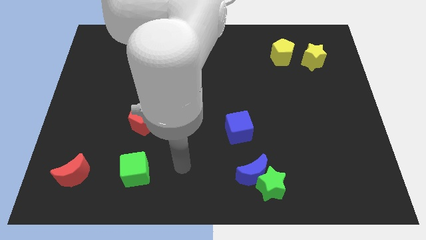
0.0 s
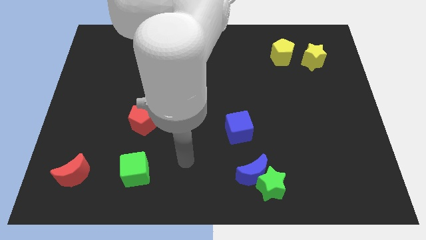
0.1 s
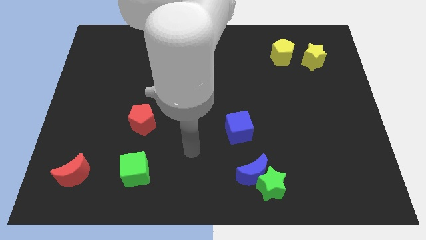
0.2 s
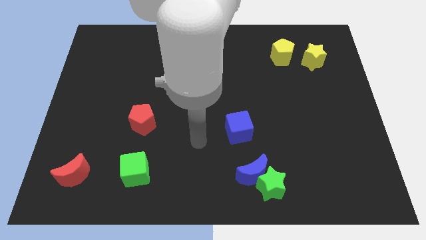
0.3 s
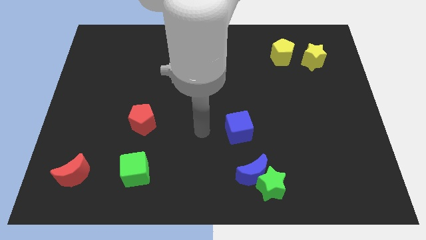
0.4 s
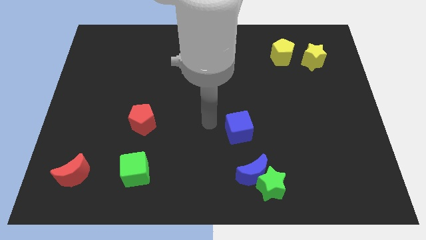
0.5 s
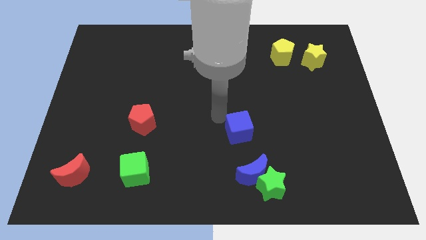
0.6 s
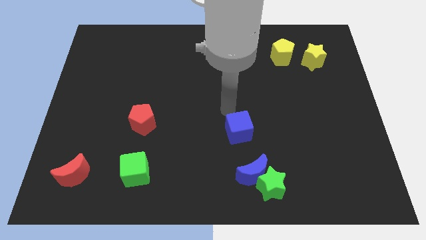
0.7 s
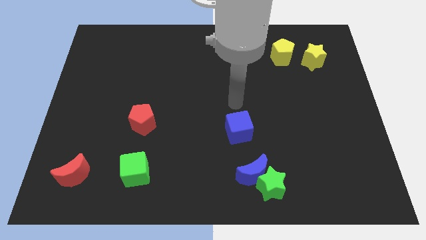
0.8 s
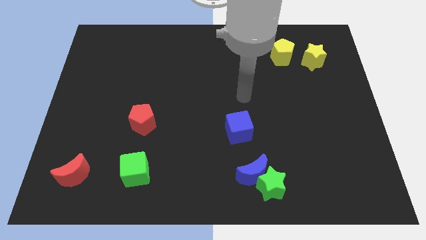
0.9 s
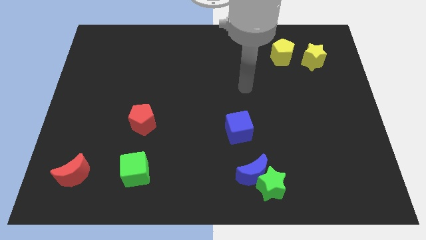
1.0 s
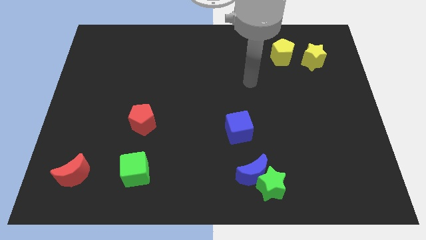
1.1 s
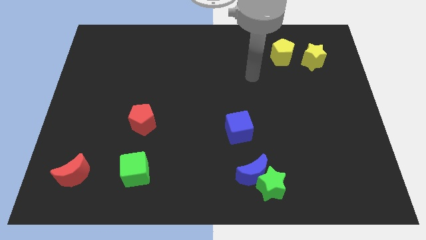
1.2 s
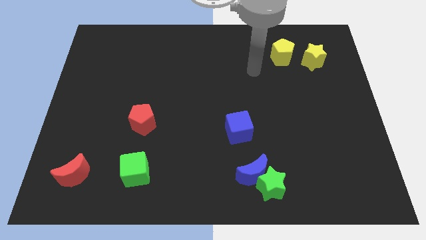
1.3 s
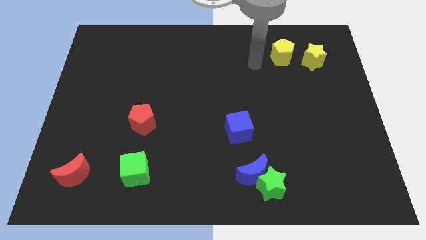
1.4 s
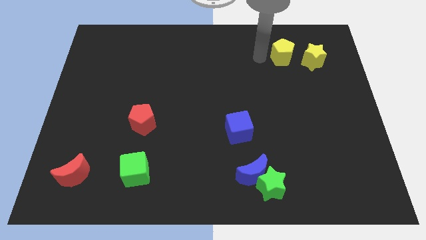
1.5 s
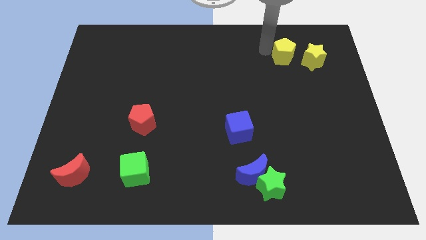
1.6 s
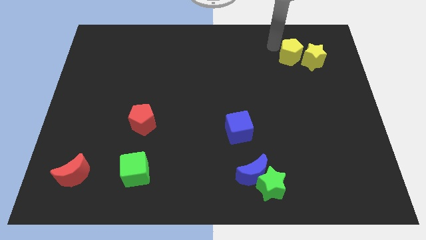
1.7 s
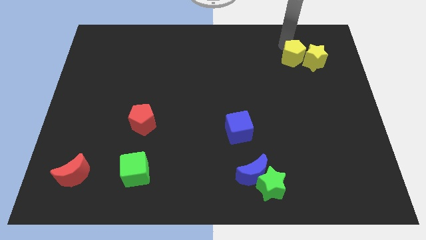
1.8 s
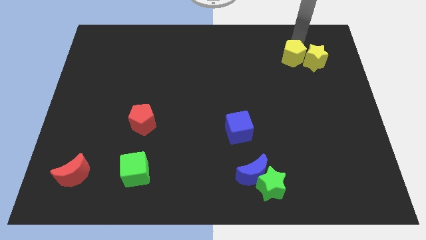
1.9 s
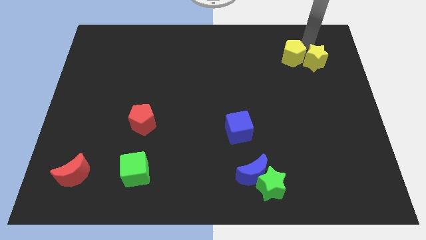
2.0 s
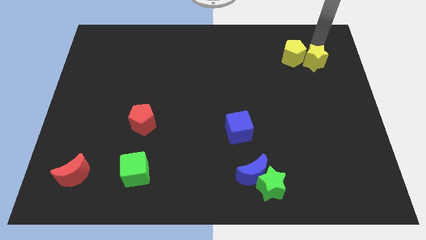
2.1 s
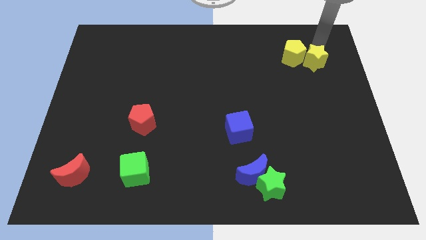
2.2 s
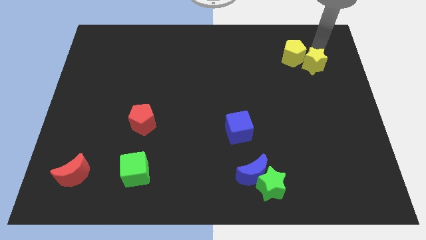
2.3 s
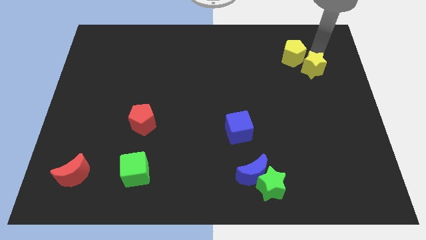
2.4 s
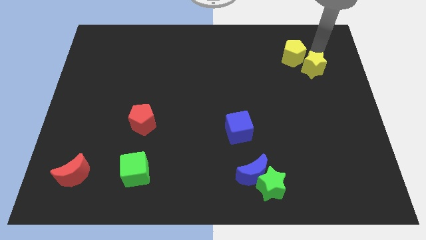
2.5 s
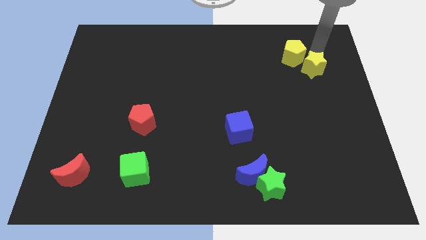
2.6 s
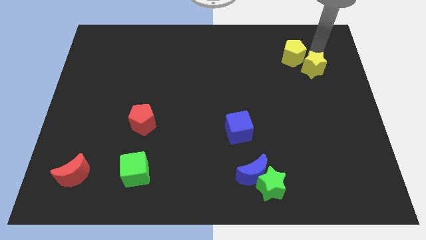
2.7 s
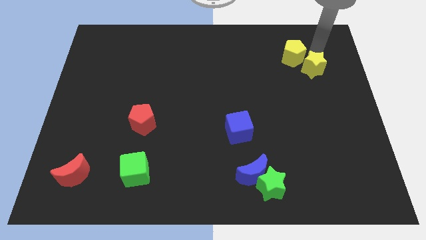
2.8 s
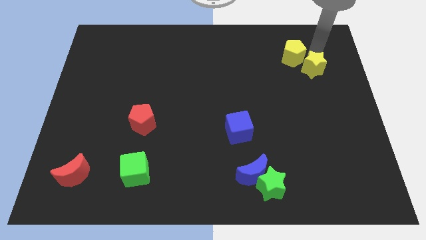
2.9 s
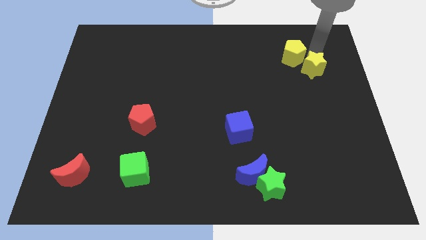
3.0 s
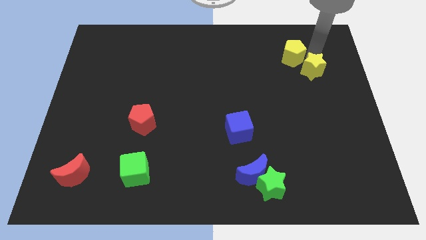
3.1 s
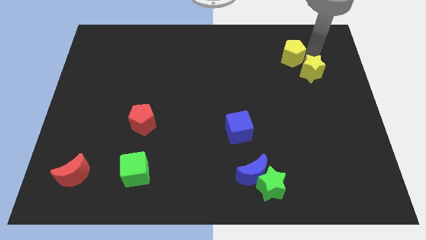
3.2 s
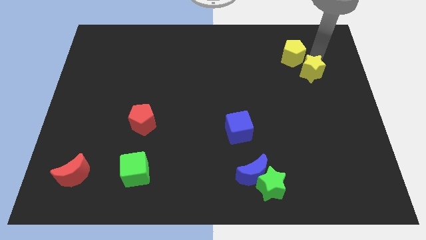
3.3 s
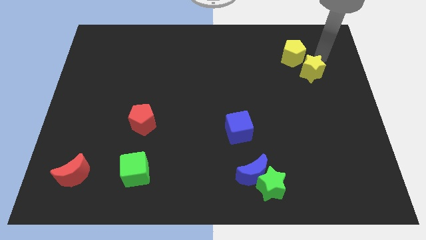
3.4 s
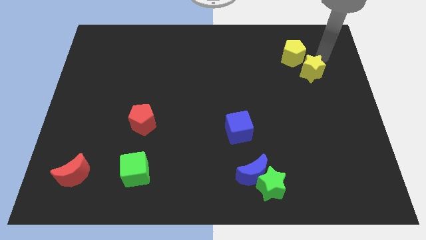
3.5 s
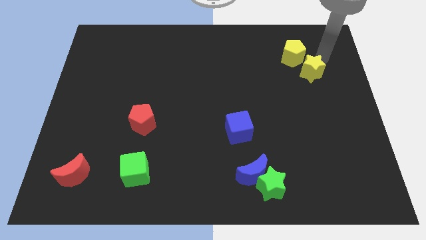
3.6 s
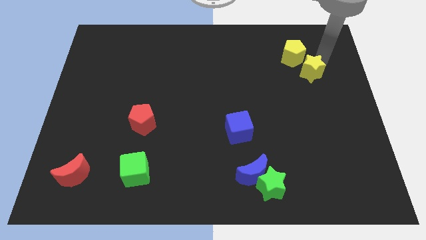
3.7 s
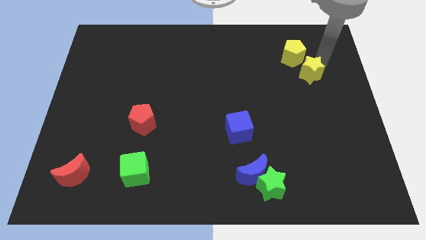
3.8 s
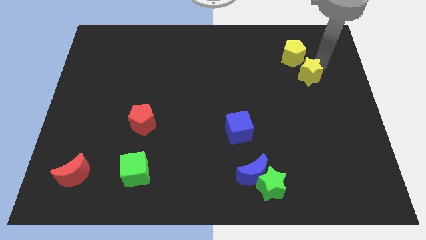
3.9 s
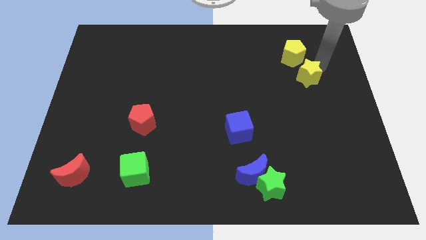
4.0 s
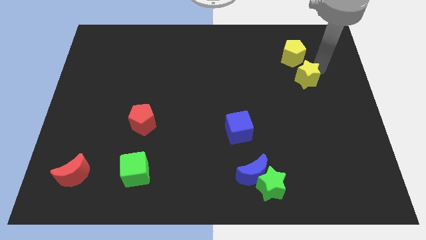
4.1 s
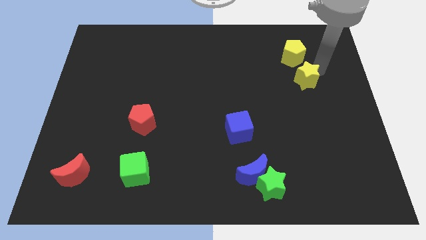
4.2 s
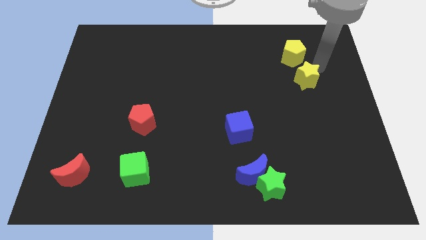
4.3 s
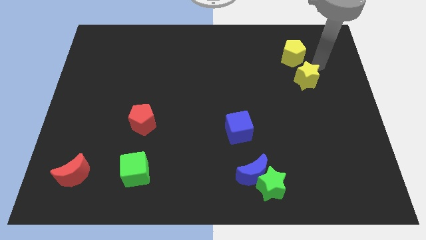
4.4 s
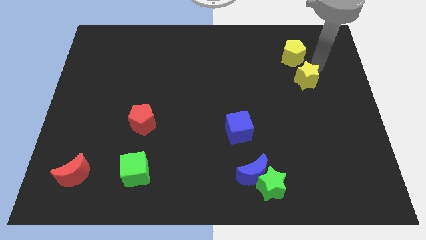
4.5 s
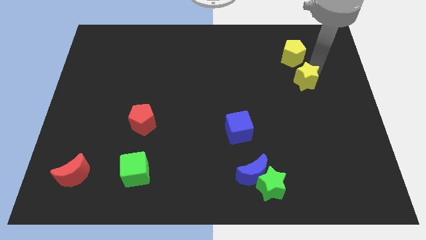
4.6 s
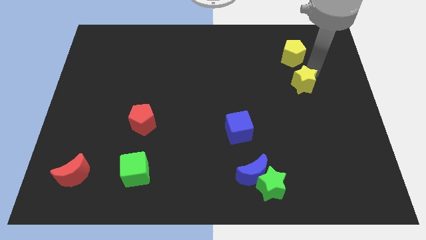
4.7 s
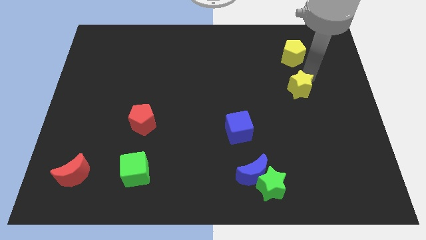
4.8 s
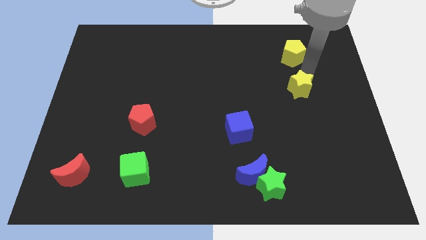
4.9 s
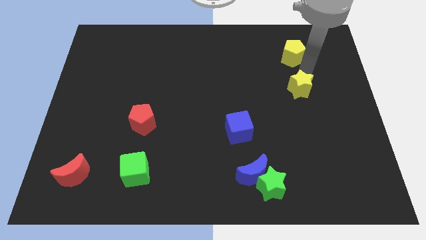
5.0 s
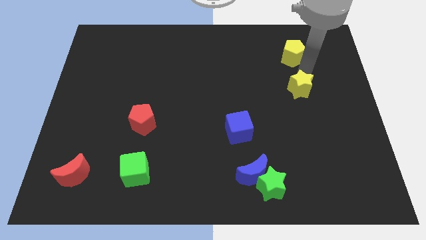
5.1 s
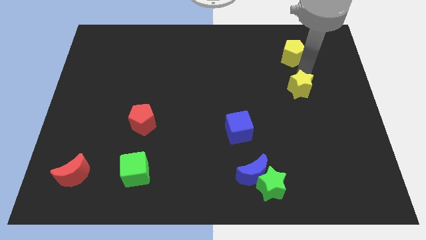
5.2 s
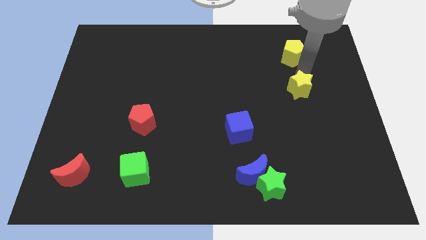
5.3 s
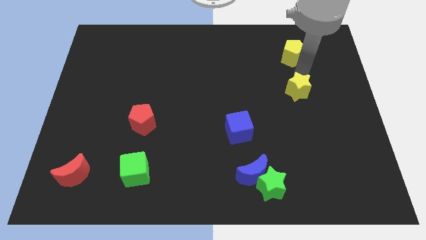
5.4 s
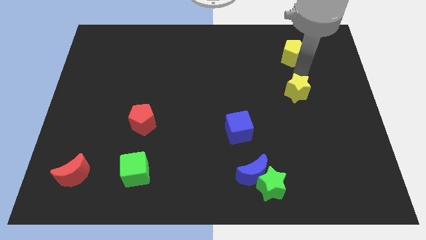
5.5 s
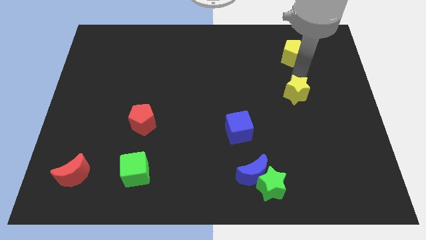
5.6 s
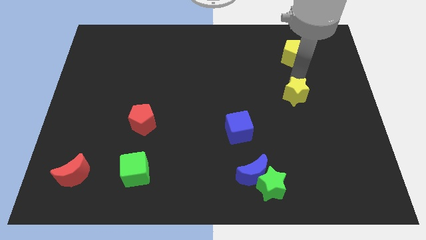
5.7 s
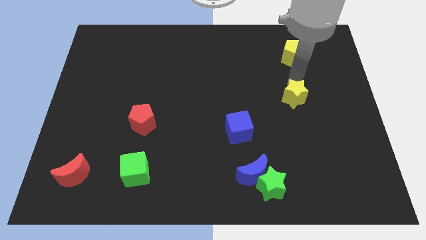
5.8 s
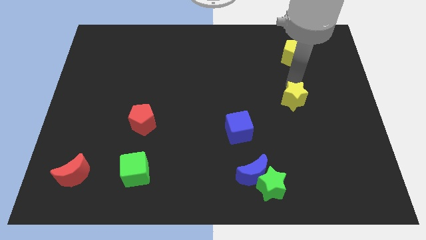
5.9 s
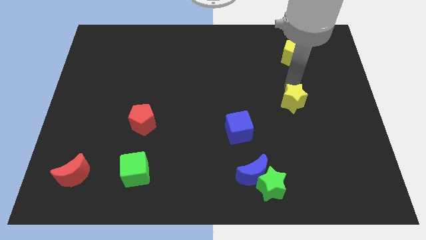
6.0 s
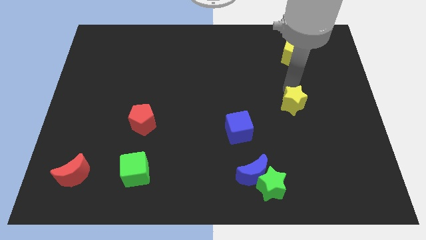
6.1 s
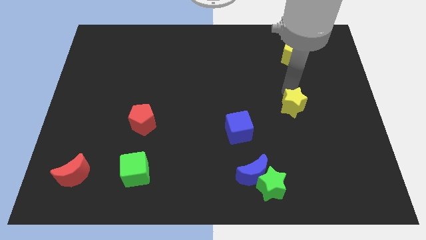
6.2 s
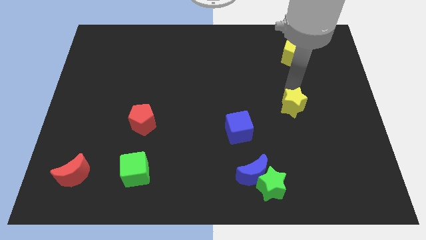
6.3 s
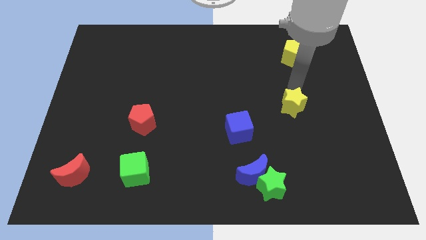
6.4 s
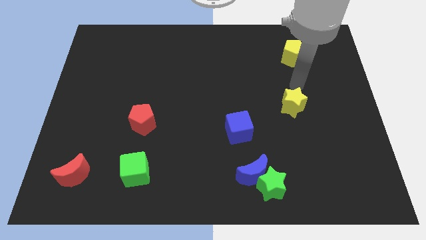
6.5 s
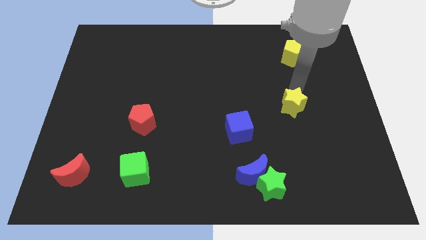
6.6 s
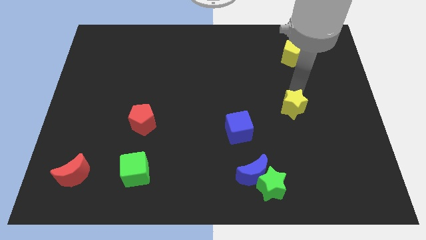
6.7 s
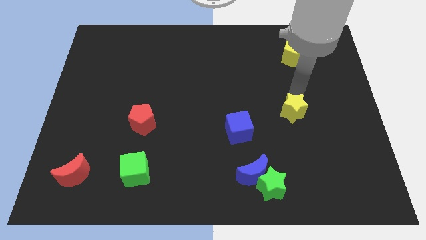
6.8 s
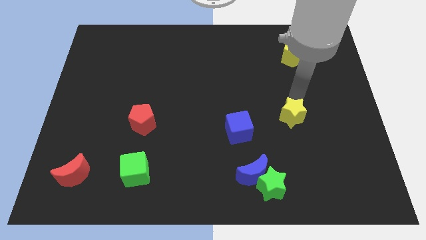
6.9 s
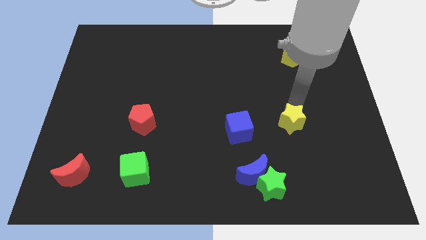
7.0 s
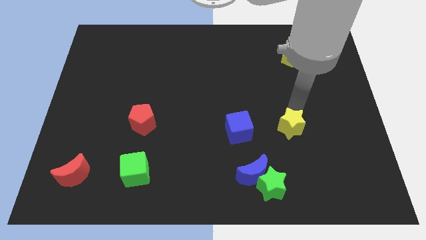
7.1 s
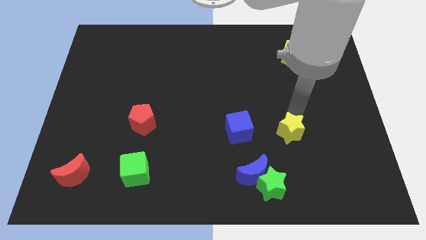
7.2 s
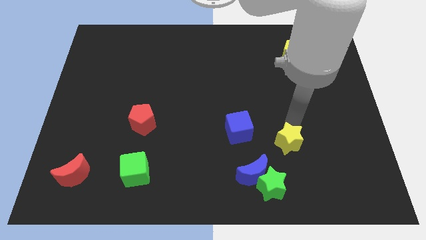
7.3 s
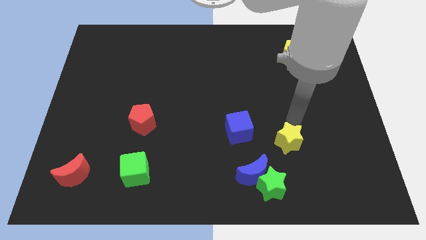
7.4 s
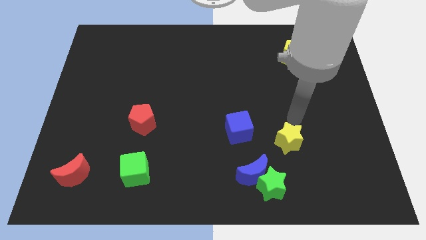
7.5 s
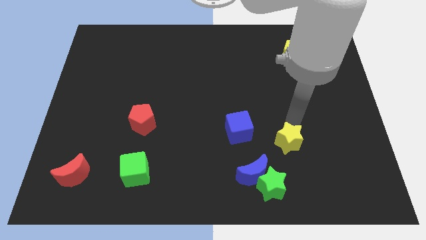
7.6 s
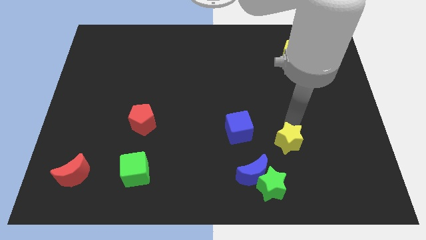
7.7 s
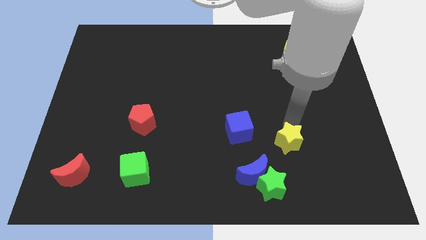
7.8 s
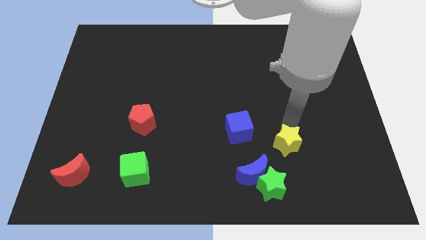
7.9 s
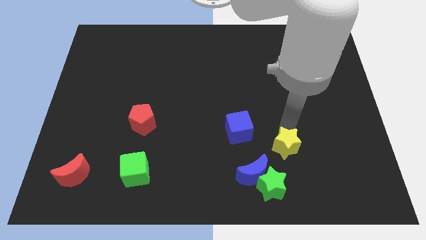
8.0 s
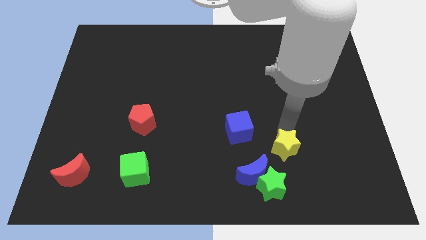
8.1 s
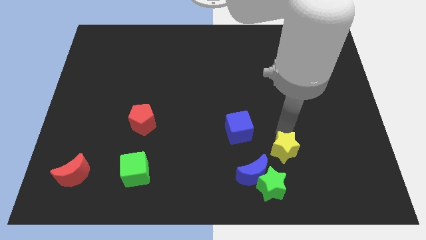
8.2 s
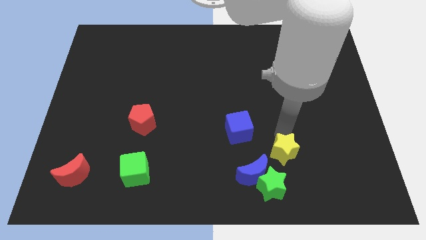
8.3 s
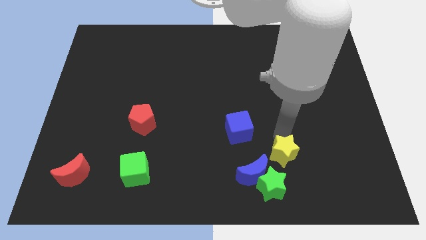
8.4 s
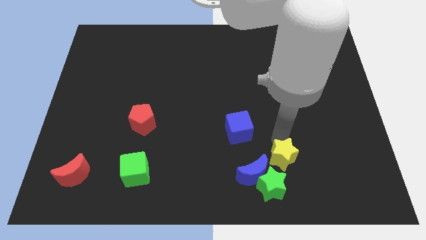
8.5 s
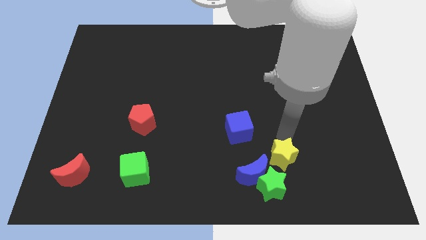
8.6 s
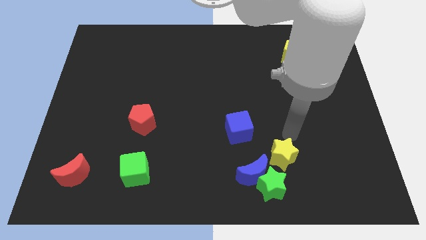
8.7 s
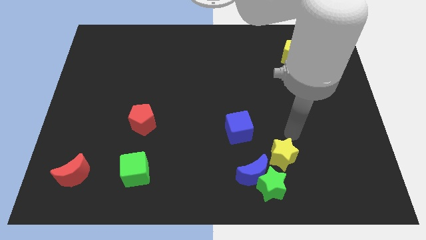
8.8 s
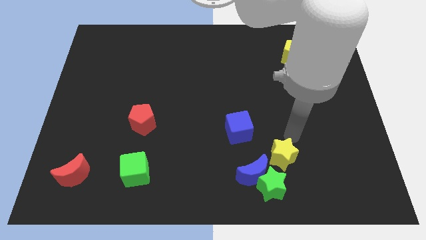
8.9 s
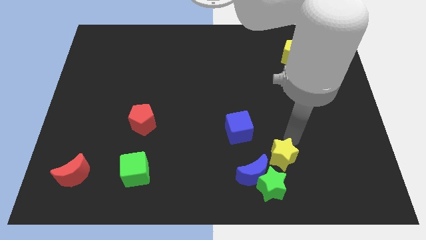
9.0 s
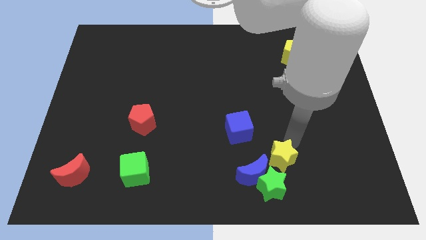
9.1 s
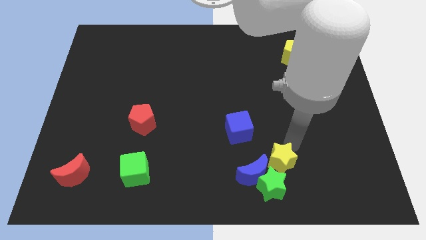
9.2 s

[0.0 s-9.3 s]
move the yellow star towards the green star
